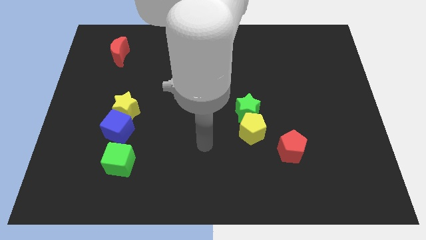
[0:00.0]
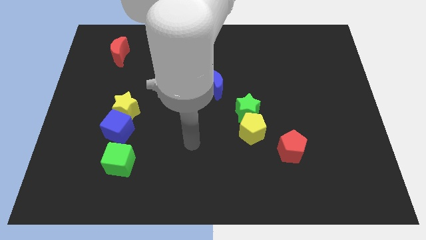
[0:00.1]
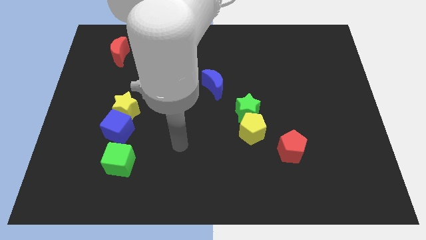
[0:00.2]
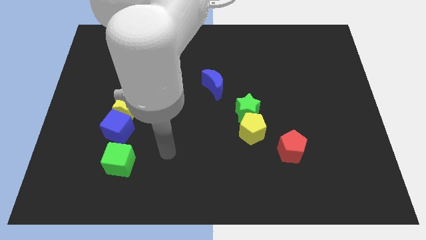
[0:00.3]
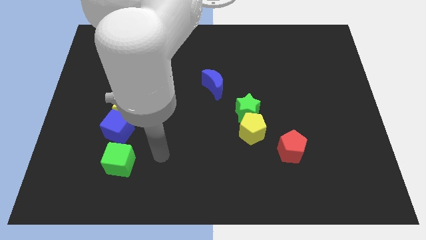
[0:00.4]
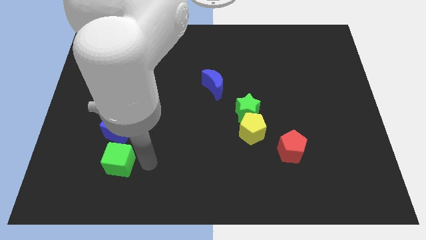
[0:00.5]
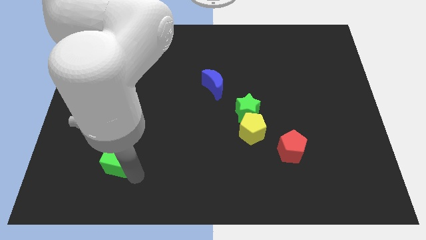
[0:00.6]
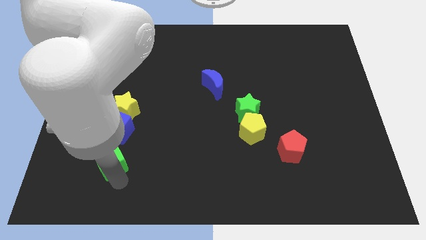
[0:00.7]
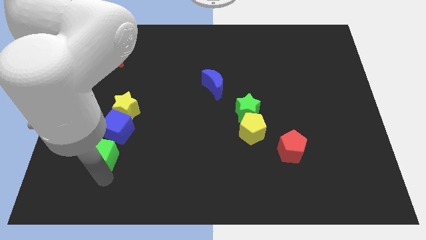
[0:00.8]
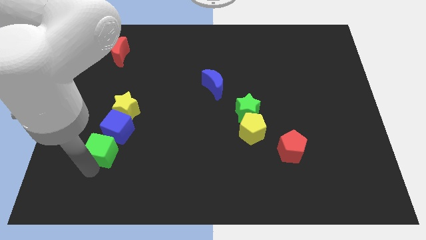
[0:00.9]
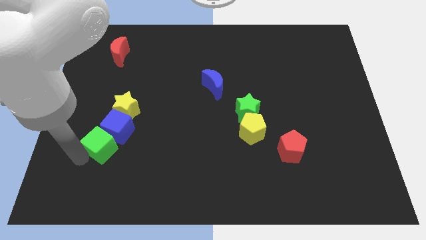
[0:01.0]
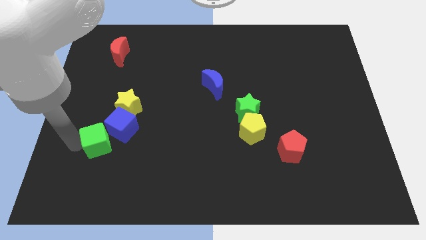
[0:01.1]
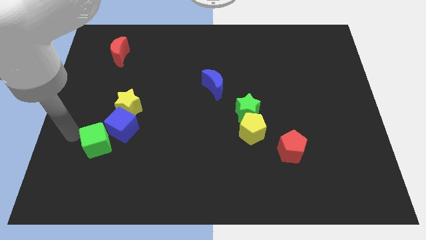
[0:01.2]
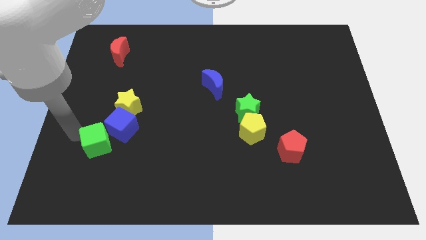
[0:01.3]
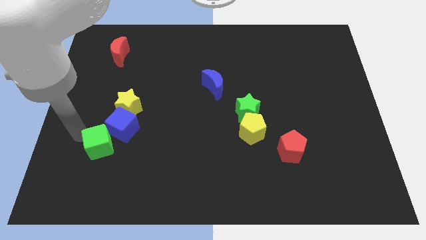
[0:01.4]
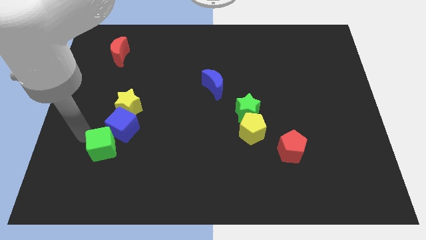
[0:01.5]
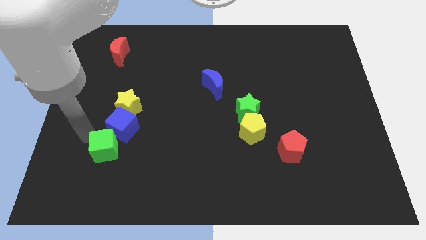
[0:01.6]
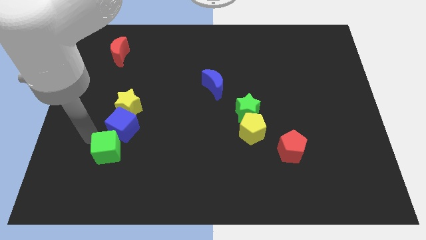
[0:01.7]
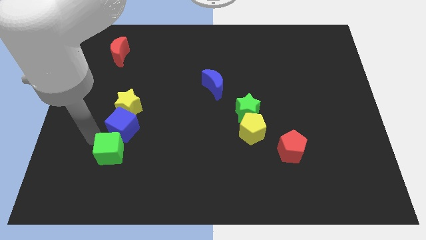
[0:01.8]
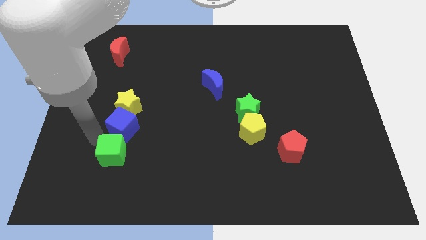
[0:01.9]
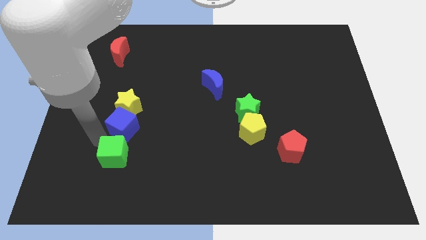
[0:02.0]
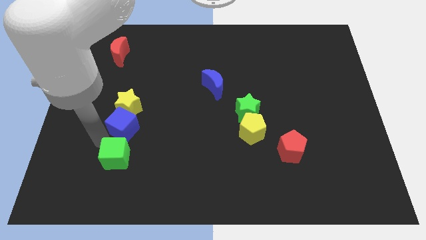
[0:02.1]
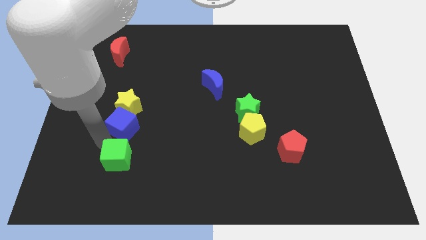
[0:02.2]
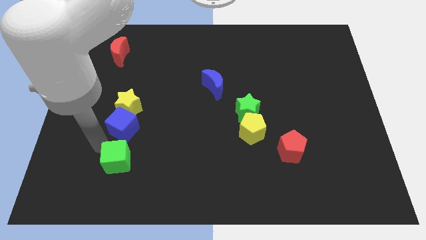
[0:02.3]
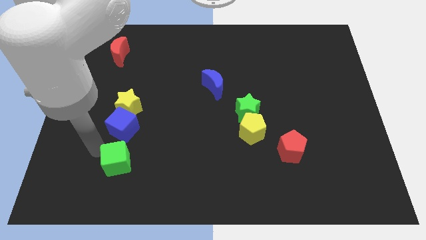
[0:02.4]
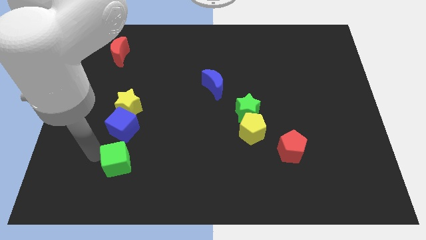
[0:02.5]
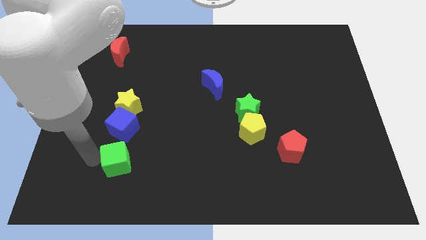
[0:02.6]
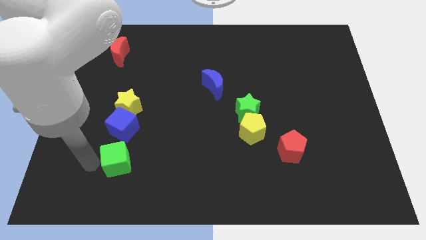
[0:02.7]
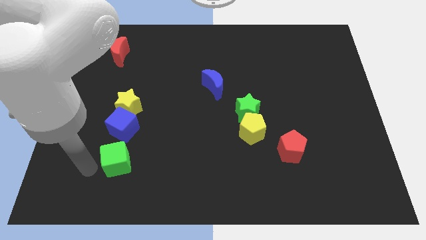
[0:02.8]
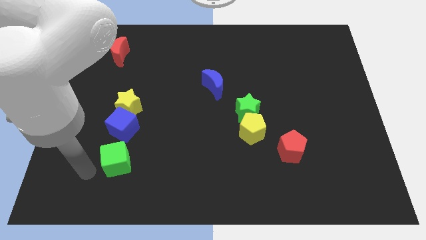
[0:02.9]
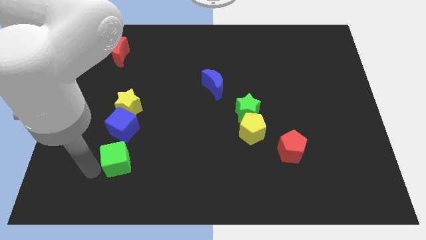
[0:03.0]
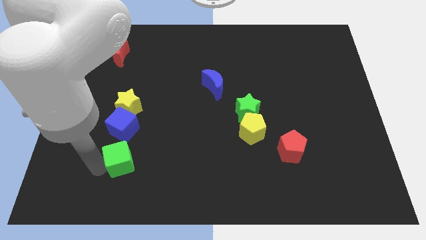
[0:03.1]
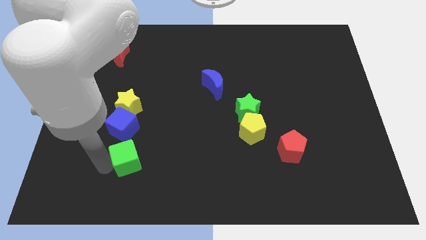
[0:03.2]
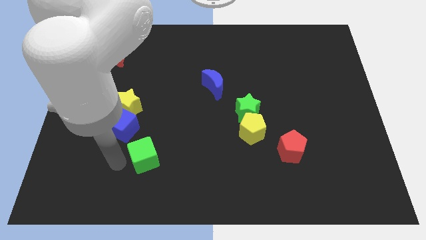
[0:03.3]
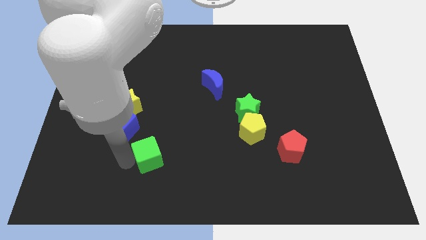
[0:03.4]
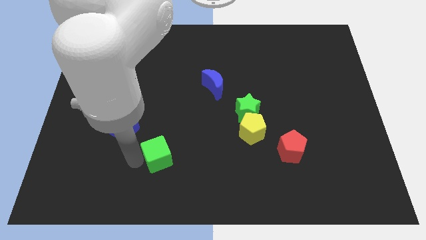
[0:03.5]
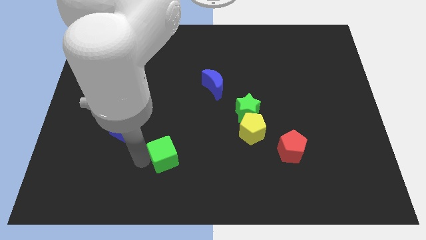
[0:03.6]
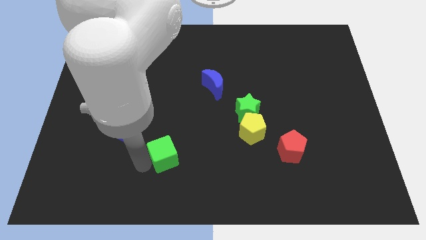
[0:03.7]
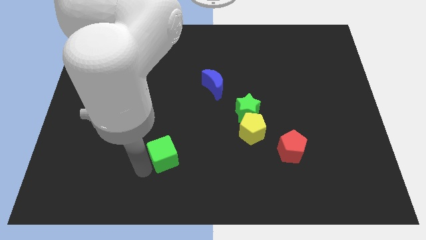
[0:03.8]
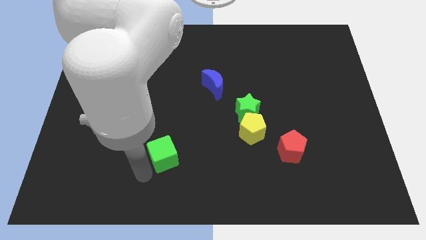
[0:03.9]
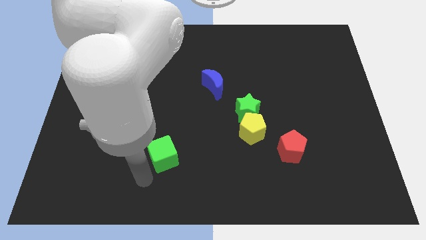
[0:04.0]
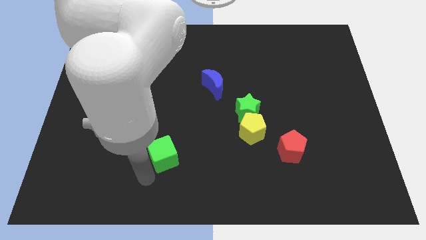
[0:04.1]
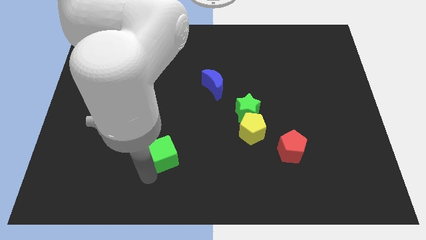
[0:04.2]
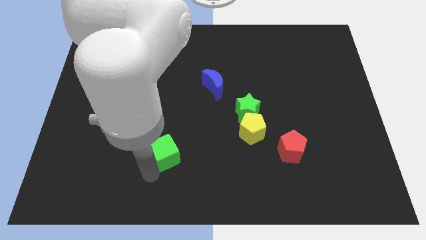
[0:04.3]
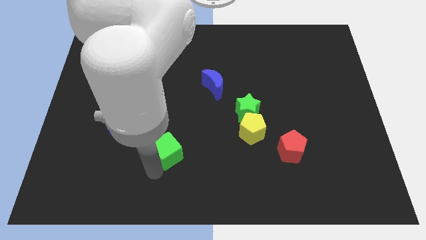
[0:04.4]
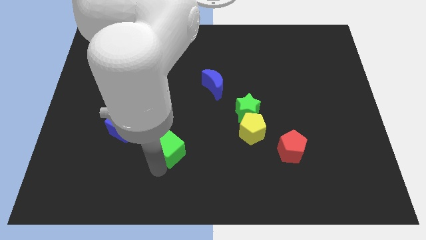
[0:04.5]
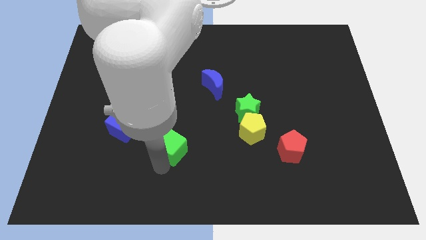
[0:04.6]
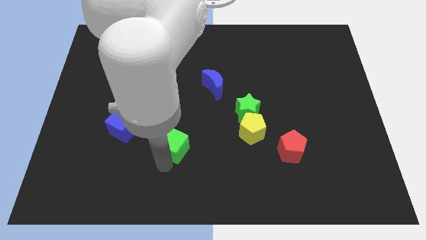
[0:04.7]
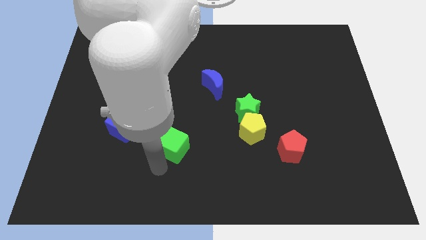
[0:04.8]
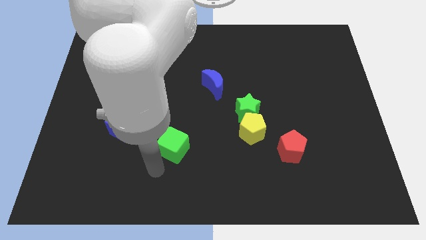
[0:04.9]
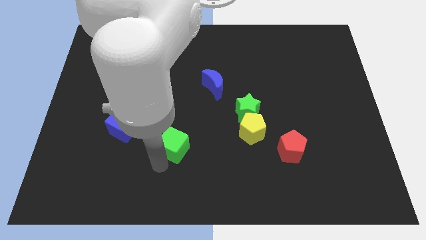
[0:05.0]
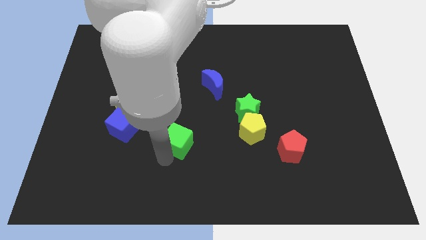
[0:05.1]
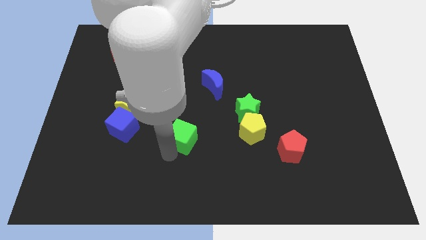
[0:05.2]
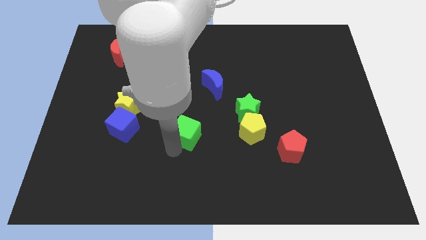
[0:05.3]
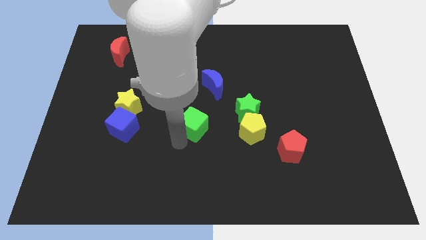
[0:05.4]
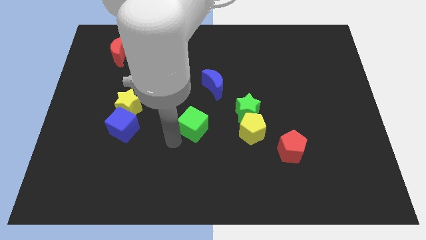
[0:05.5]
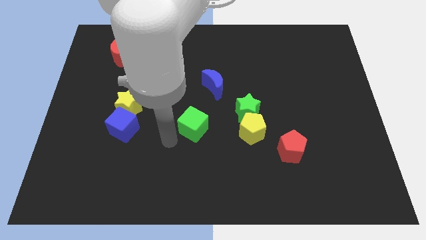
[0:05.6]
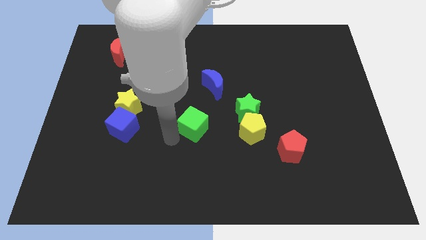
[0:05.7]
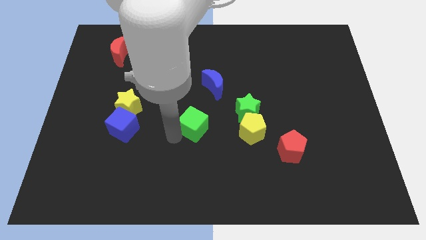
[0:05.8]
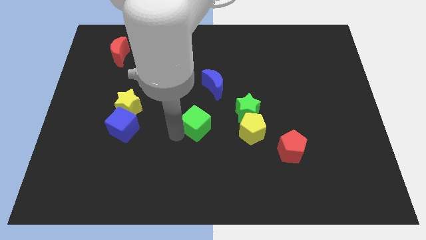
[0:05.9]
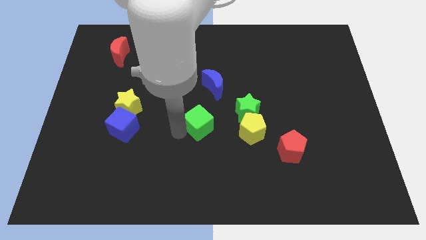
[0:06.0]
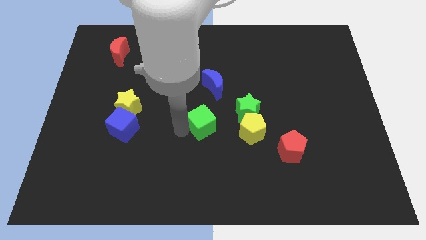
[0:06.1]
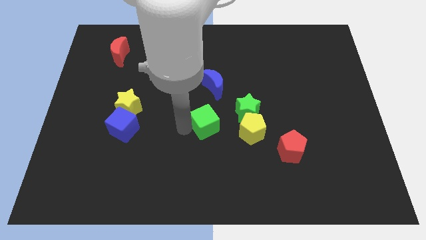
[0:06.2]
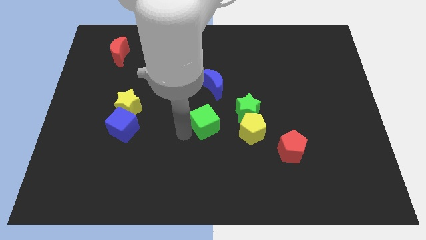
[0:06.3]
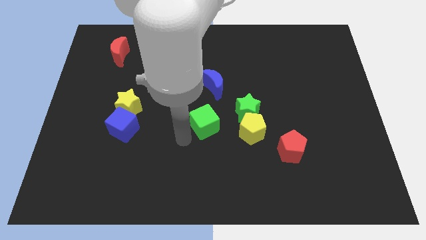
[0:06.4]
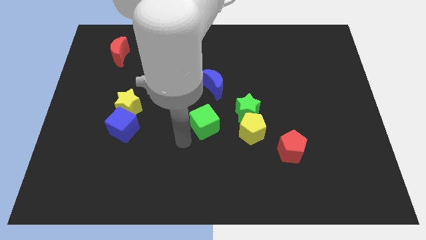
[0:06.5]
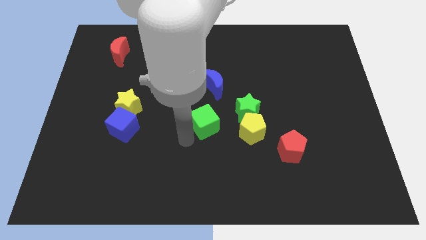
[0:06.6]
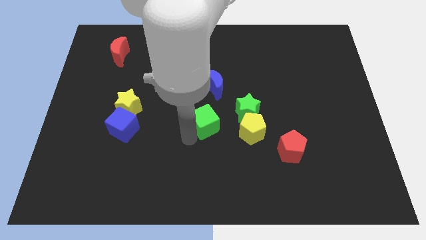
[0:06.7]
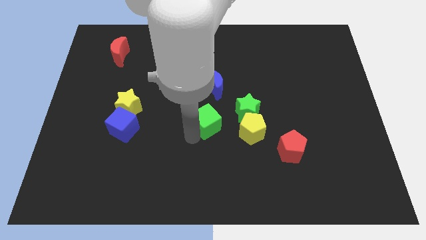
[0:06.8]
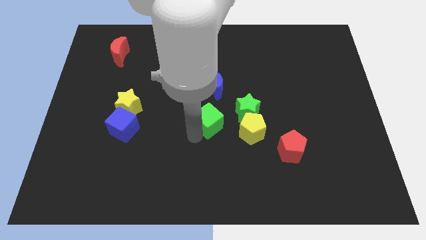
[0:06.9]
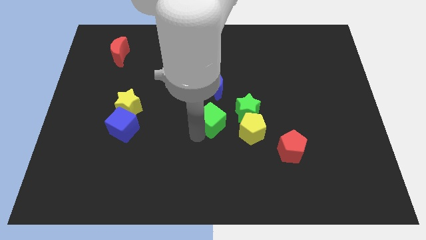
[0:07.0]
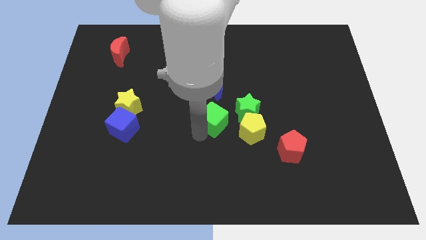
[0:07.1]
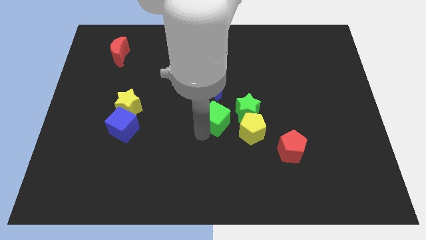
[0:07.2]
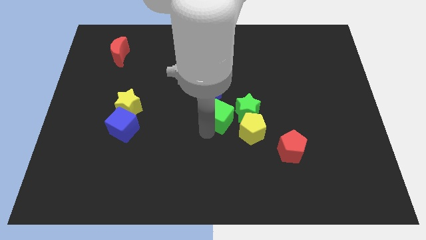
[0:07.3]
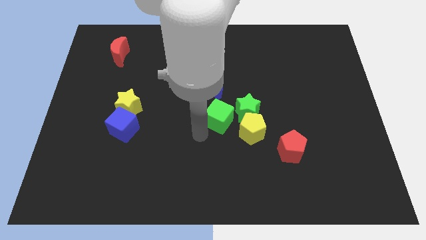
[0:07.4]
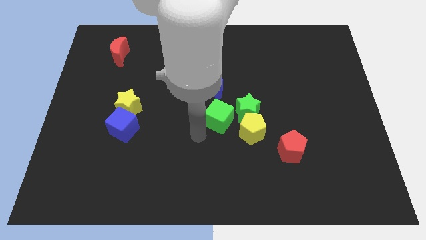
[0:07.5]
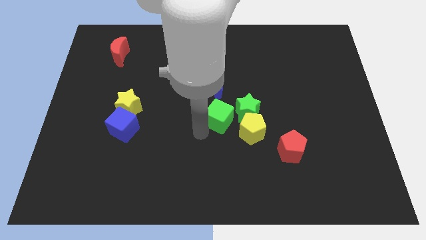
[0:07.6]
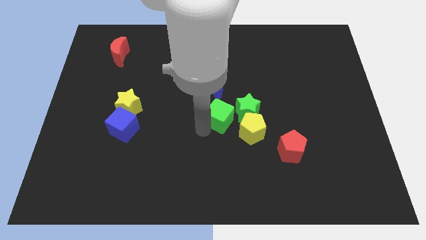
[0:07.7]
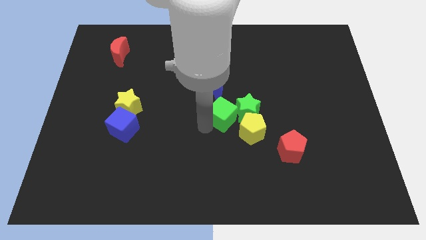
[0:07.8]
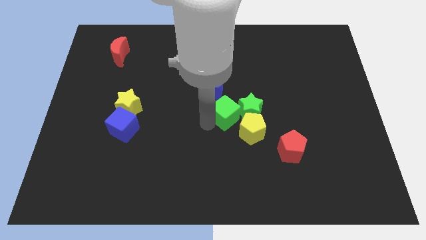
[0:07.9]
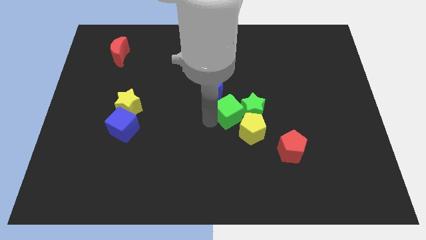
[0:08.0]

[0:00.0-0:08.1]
put the green cube above the yellow pentagon
